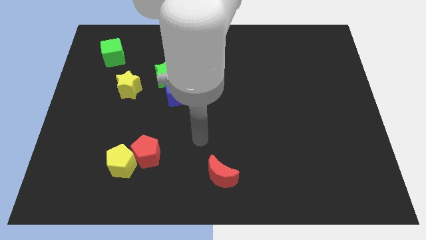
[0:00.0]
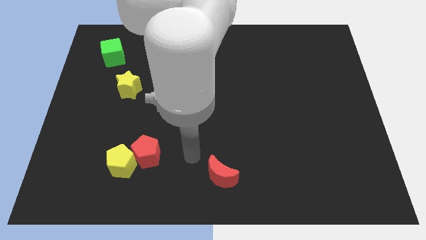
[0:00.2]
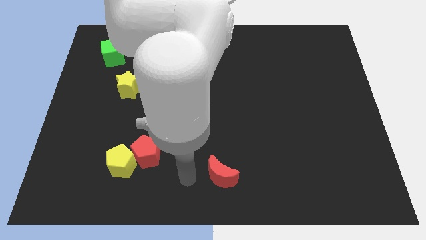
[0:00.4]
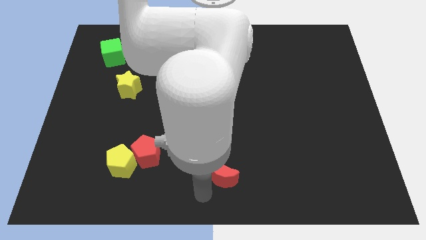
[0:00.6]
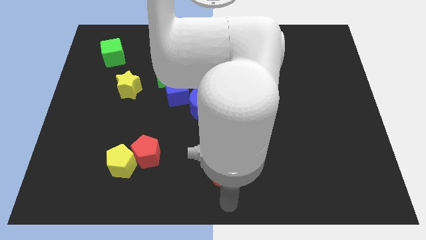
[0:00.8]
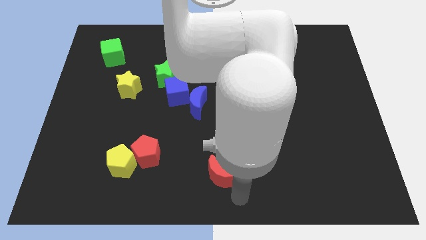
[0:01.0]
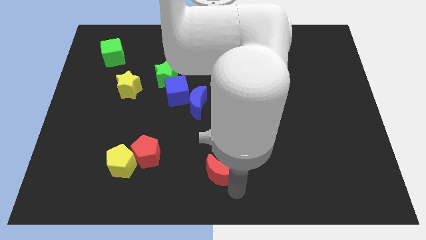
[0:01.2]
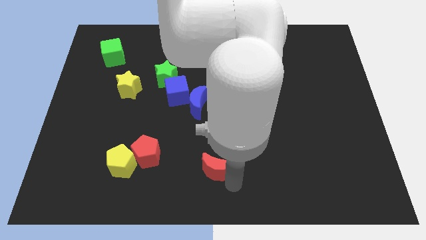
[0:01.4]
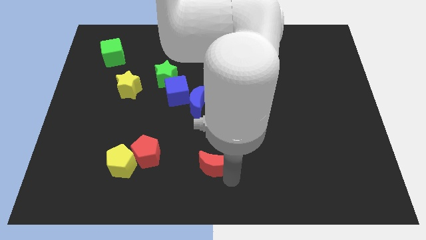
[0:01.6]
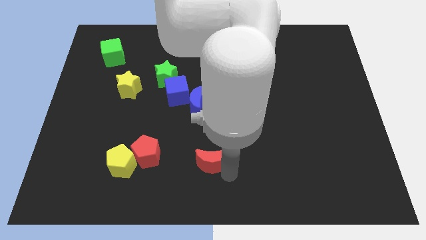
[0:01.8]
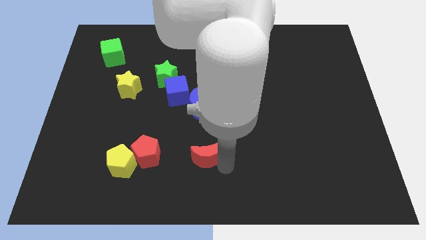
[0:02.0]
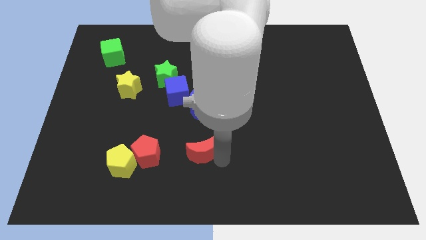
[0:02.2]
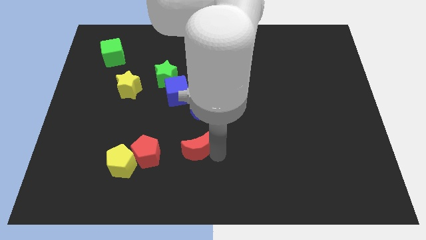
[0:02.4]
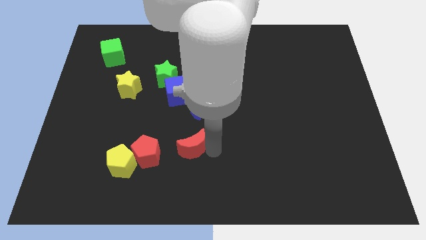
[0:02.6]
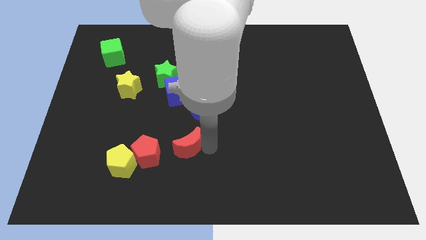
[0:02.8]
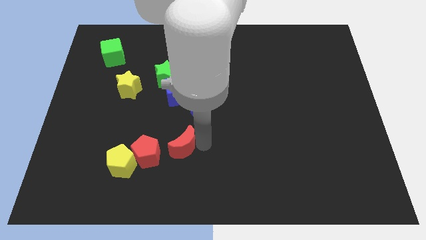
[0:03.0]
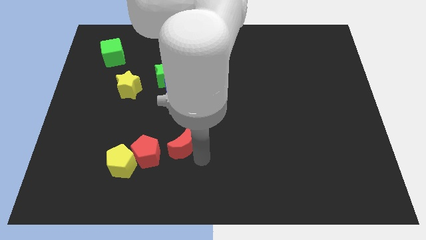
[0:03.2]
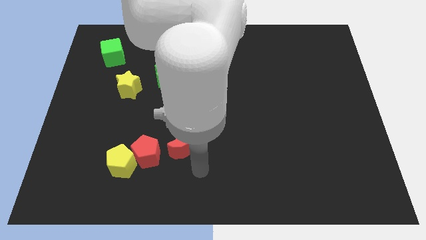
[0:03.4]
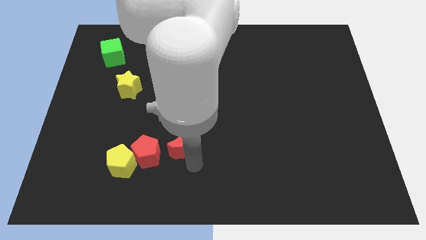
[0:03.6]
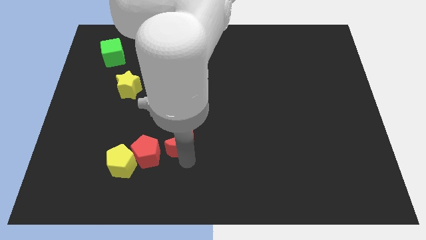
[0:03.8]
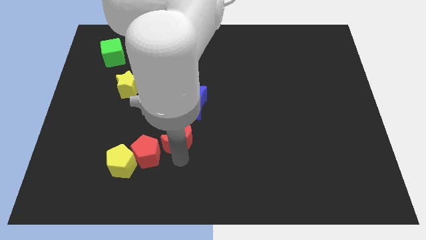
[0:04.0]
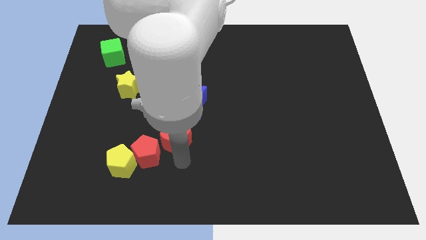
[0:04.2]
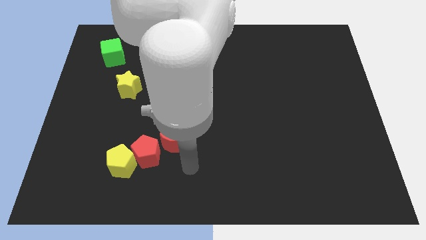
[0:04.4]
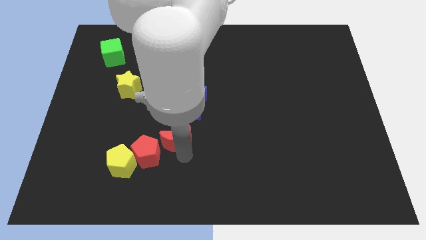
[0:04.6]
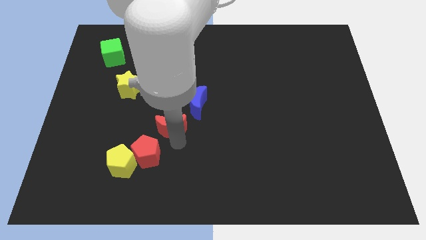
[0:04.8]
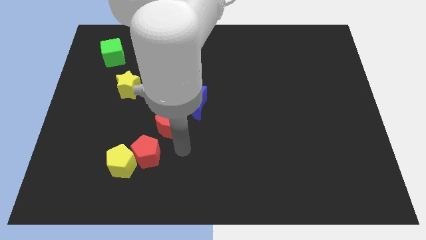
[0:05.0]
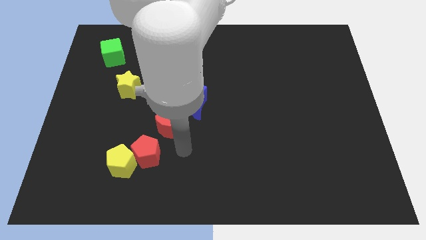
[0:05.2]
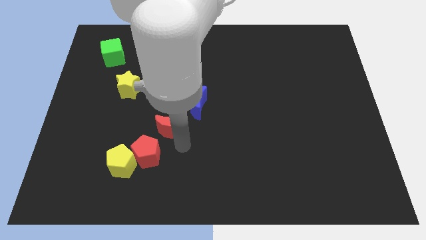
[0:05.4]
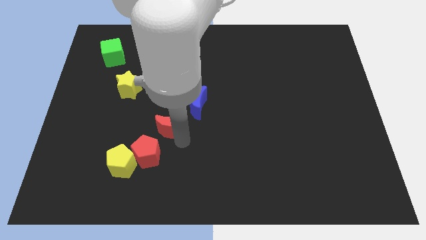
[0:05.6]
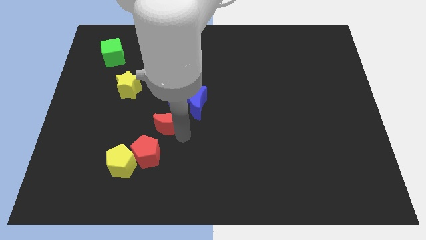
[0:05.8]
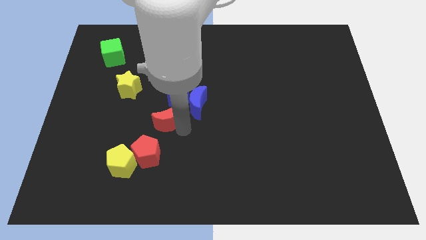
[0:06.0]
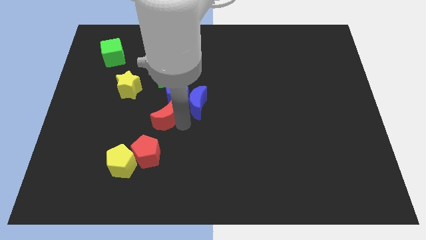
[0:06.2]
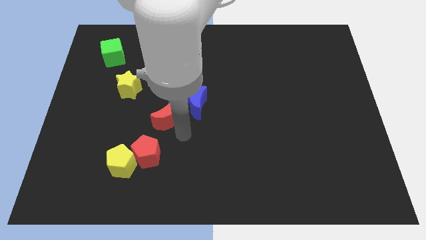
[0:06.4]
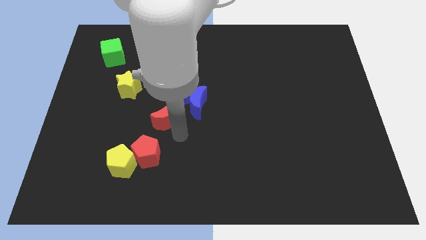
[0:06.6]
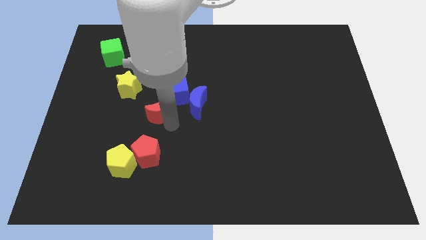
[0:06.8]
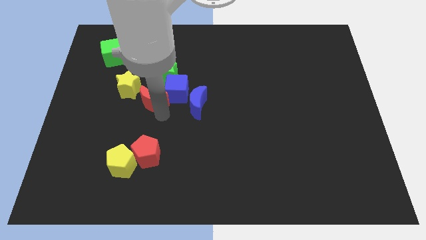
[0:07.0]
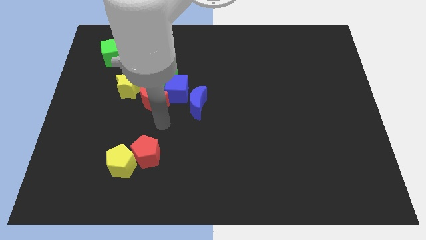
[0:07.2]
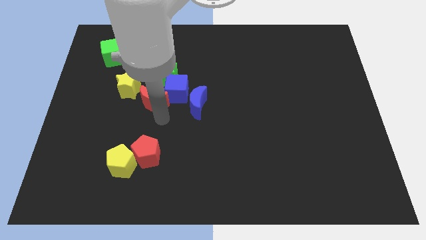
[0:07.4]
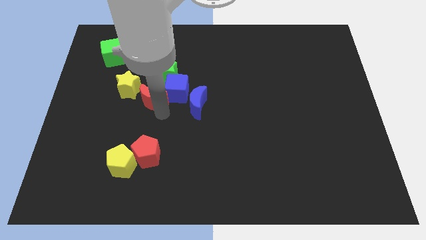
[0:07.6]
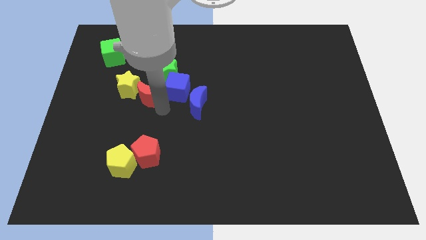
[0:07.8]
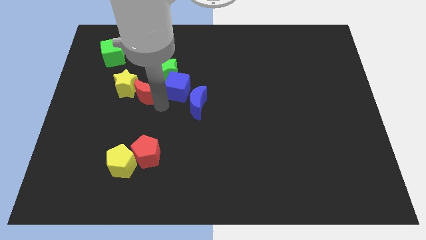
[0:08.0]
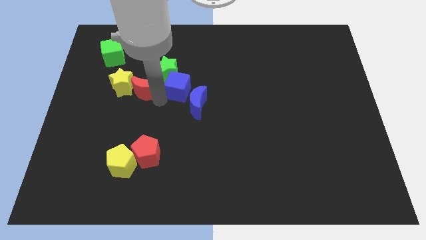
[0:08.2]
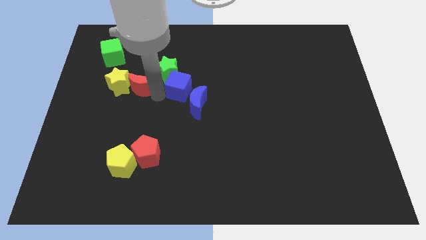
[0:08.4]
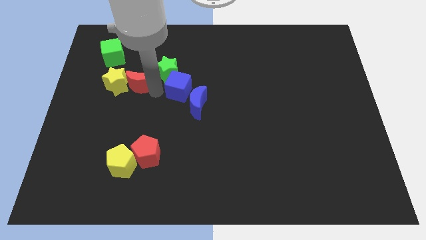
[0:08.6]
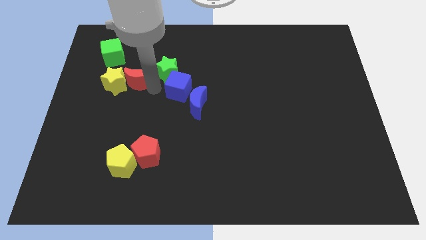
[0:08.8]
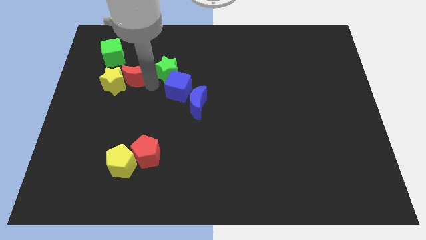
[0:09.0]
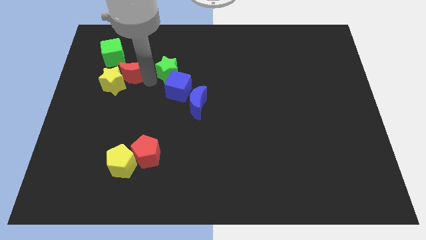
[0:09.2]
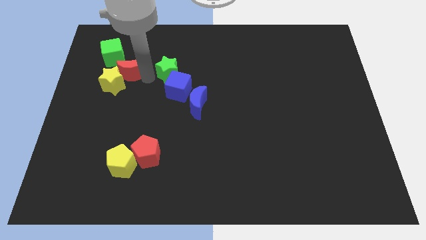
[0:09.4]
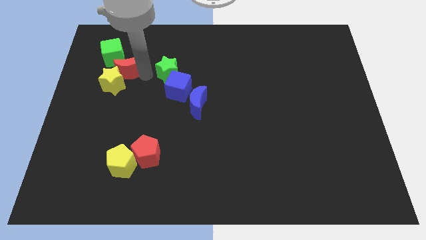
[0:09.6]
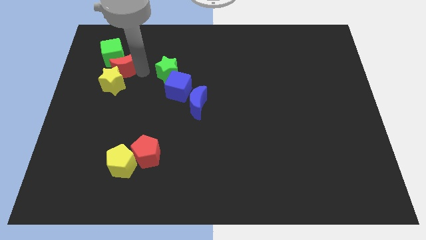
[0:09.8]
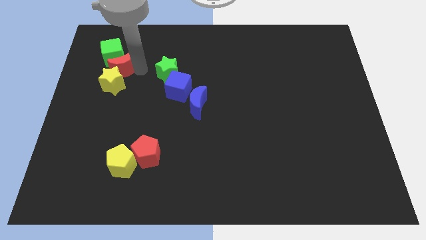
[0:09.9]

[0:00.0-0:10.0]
push the red moon to the green cube

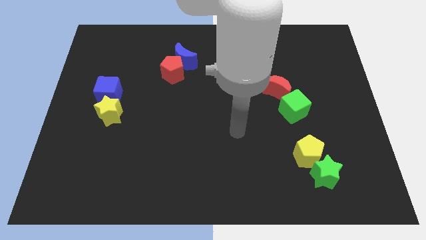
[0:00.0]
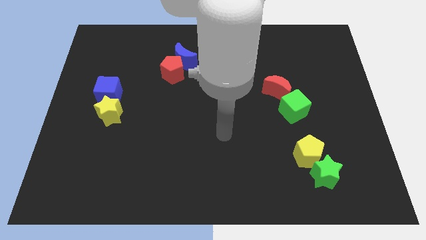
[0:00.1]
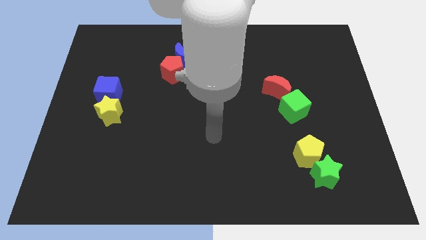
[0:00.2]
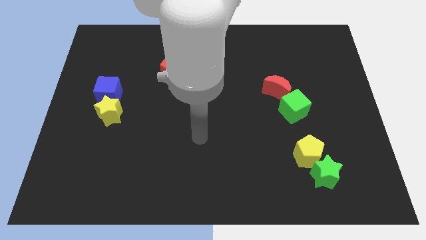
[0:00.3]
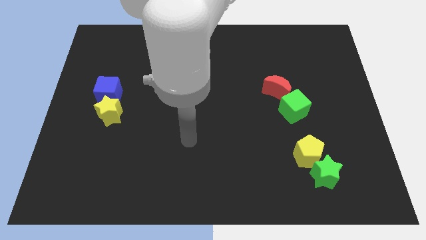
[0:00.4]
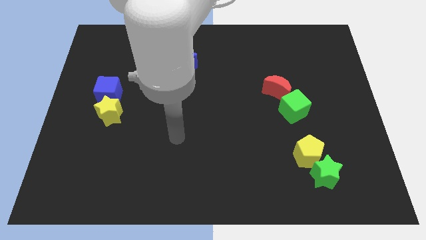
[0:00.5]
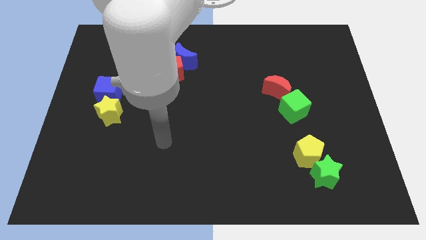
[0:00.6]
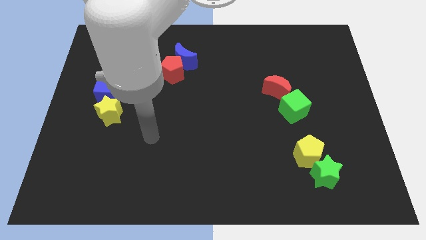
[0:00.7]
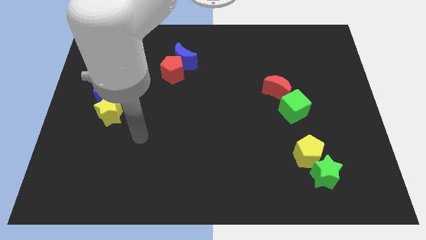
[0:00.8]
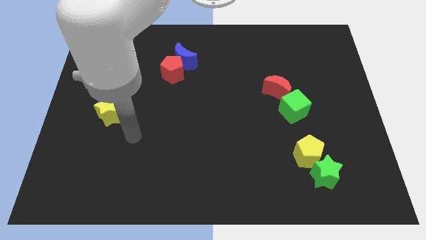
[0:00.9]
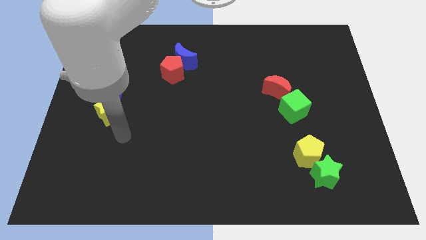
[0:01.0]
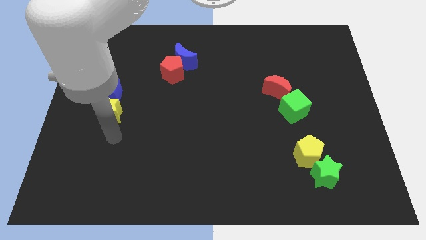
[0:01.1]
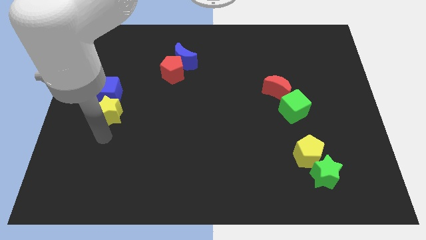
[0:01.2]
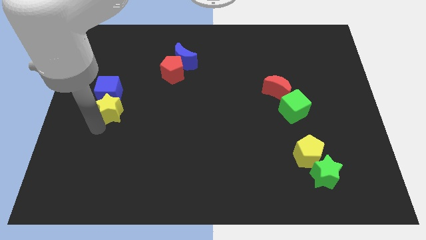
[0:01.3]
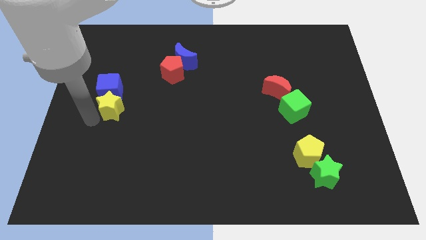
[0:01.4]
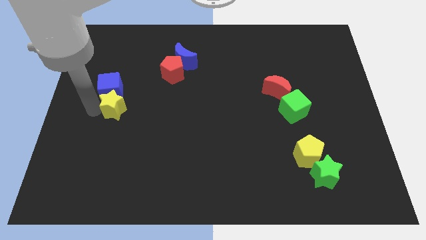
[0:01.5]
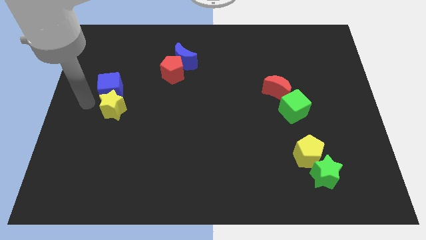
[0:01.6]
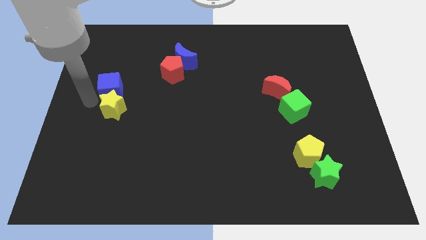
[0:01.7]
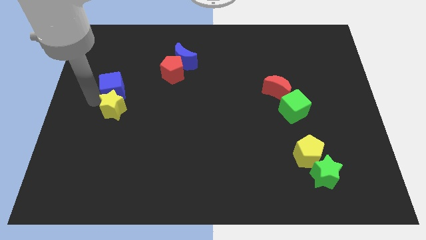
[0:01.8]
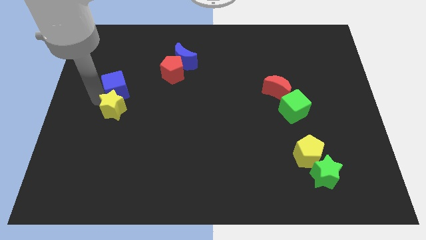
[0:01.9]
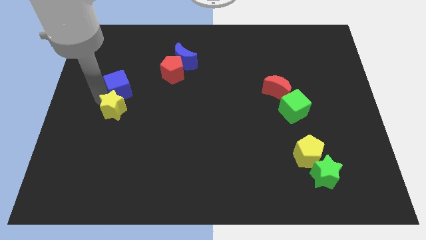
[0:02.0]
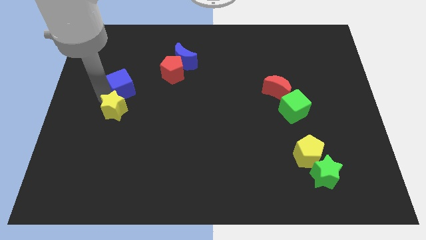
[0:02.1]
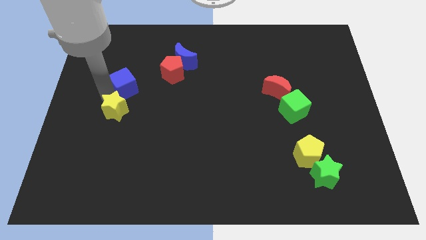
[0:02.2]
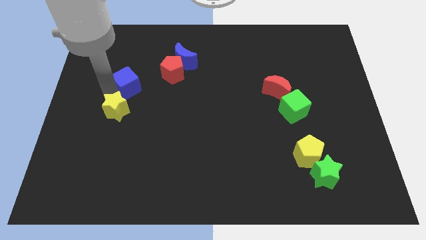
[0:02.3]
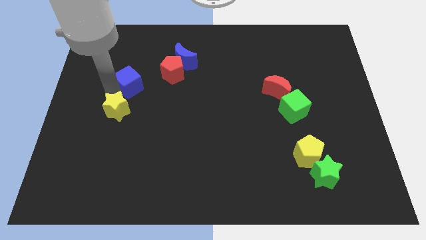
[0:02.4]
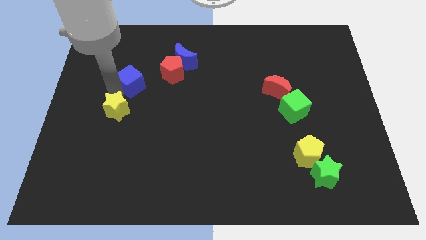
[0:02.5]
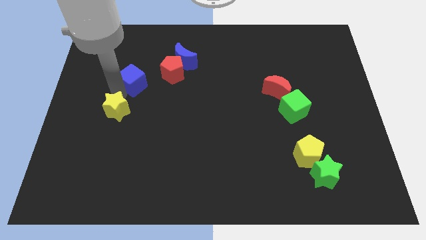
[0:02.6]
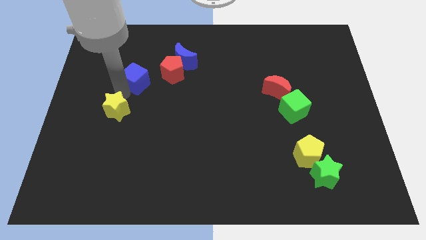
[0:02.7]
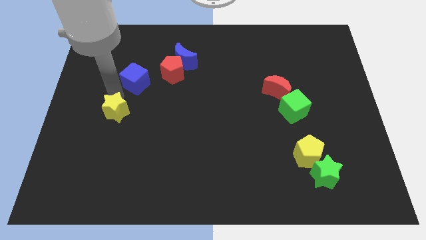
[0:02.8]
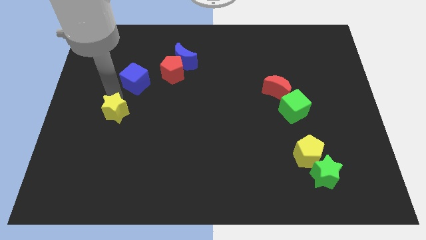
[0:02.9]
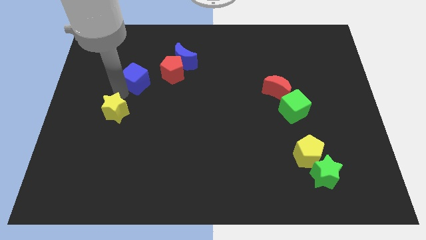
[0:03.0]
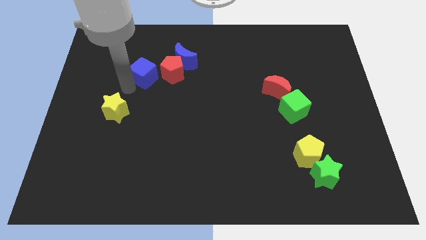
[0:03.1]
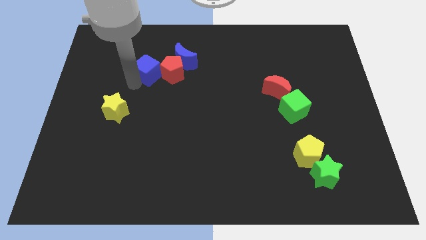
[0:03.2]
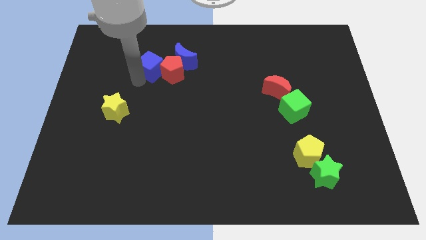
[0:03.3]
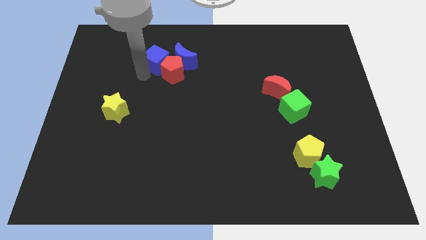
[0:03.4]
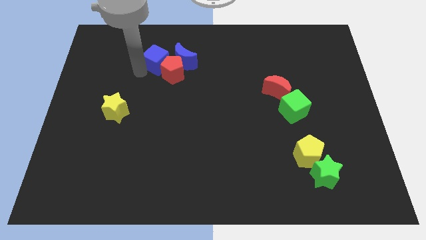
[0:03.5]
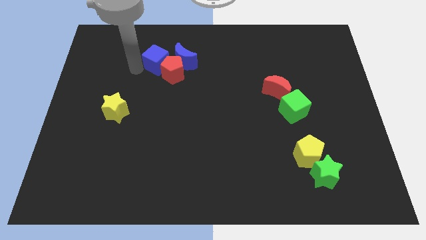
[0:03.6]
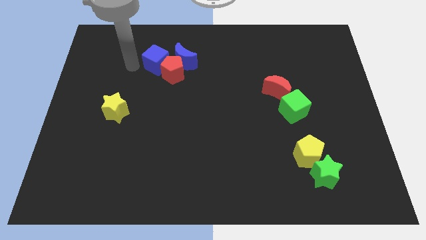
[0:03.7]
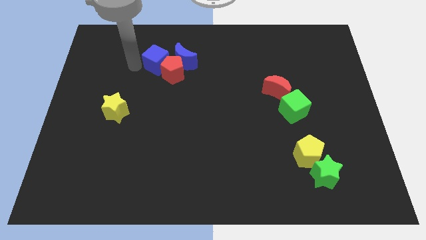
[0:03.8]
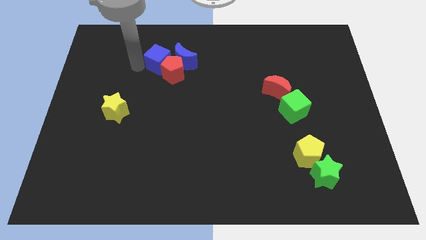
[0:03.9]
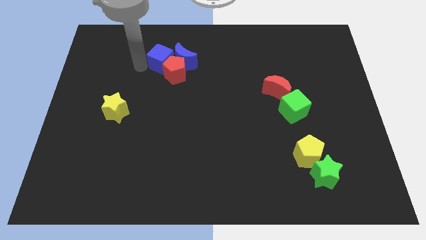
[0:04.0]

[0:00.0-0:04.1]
put the blue cube close to the blue moon
